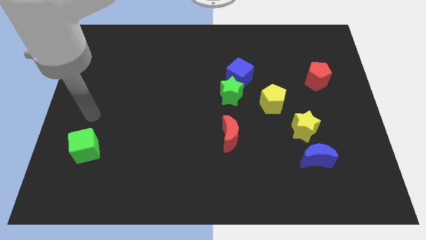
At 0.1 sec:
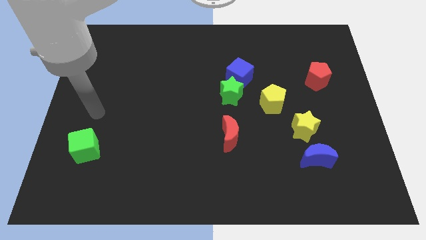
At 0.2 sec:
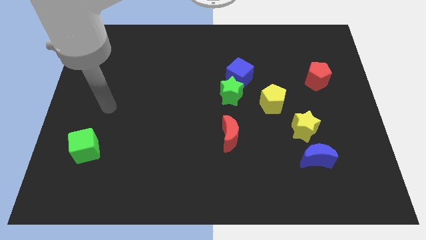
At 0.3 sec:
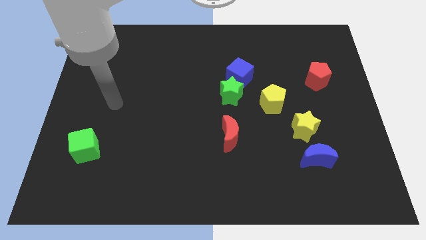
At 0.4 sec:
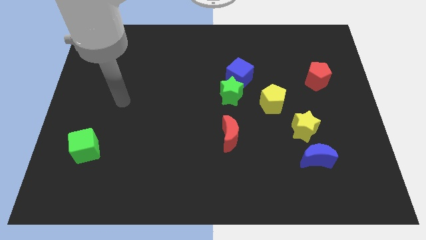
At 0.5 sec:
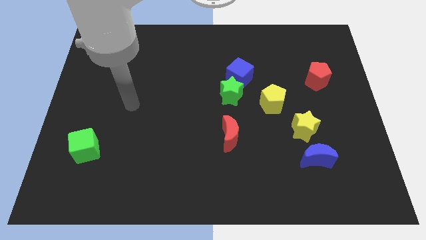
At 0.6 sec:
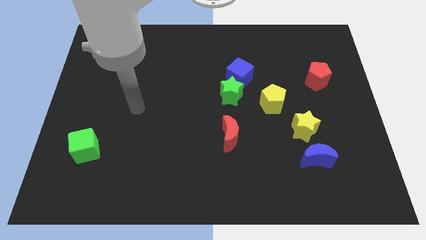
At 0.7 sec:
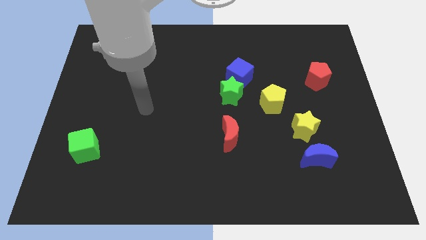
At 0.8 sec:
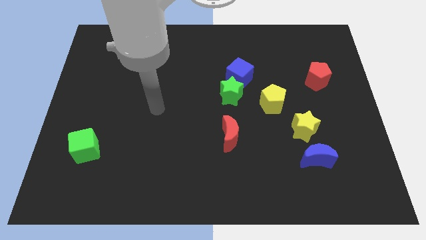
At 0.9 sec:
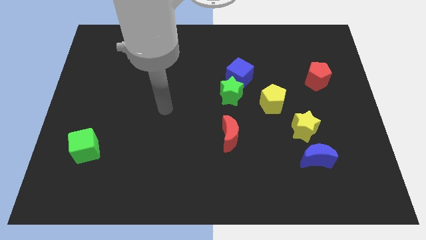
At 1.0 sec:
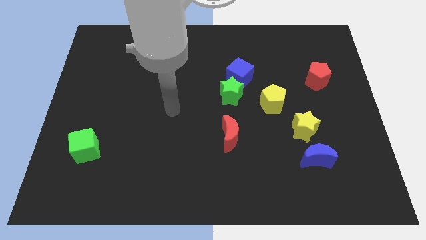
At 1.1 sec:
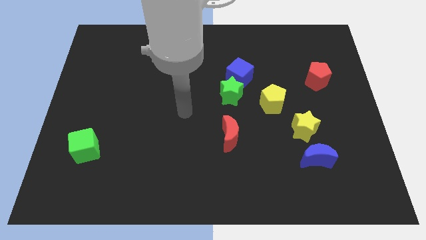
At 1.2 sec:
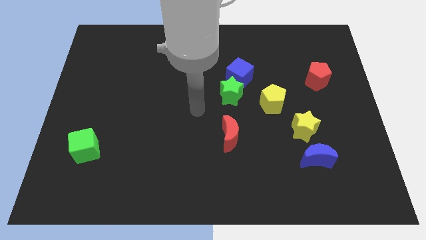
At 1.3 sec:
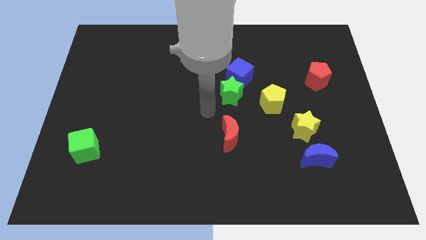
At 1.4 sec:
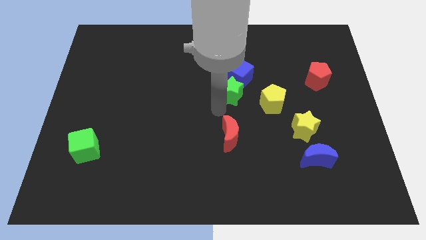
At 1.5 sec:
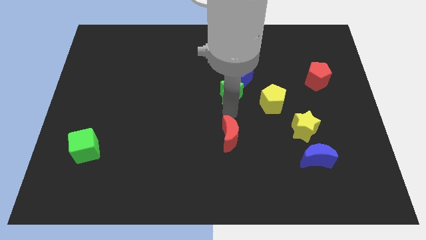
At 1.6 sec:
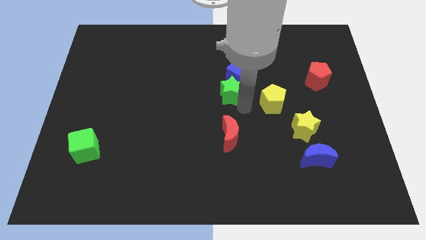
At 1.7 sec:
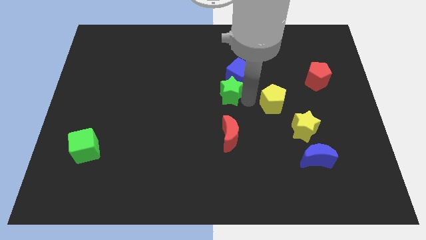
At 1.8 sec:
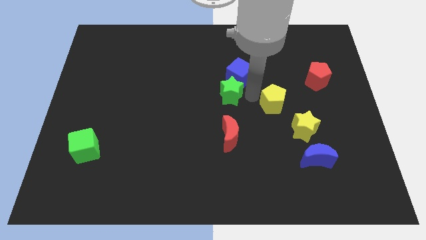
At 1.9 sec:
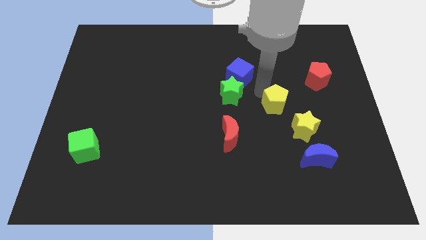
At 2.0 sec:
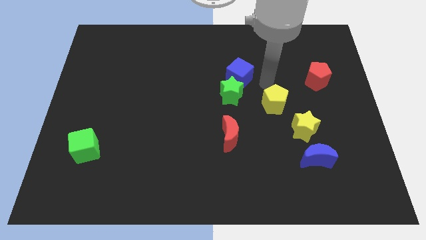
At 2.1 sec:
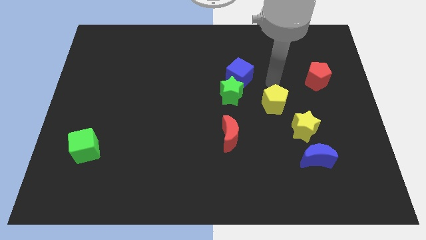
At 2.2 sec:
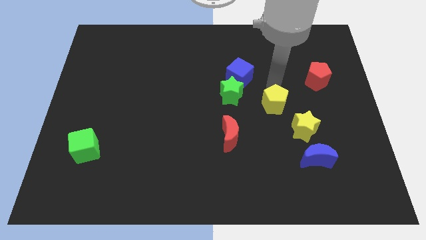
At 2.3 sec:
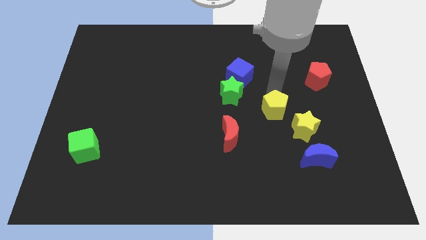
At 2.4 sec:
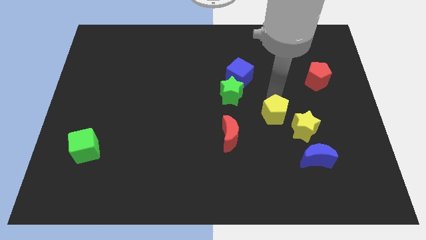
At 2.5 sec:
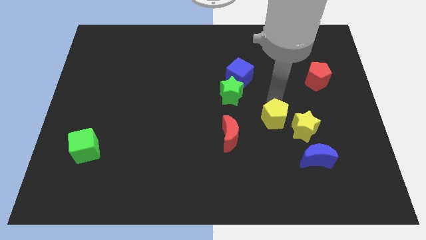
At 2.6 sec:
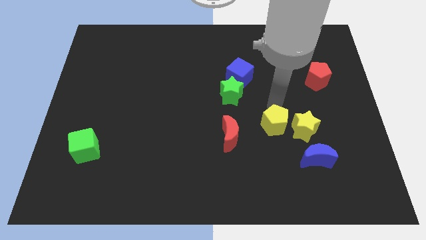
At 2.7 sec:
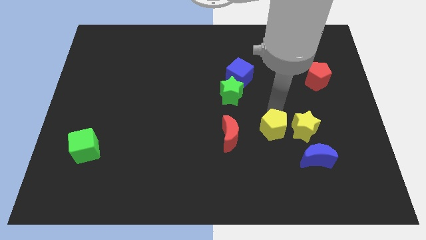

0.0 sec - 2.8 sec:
push the yellow pentagon downwards somewhat

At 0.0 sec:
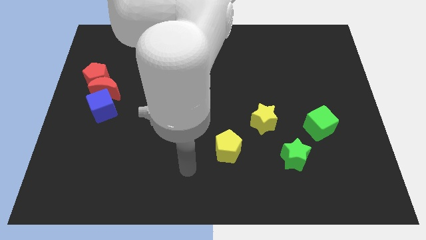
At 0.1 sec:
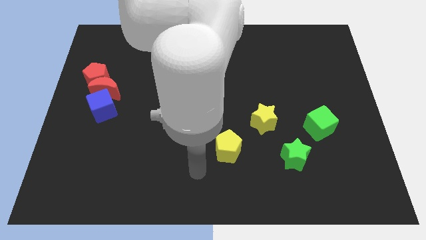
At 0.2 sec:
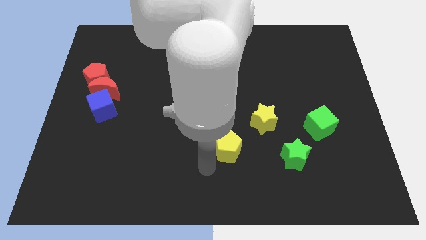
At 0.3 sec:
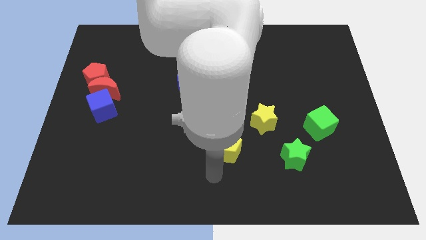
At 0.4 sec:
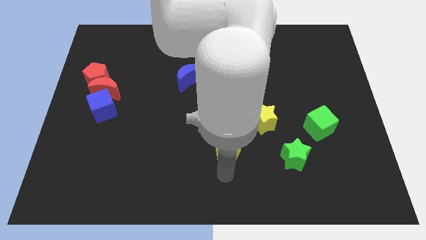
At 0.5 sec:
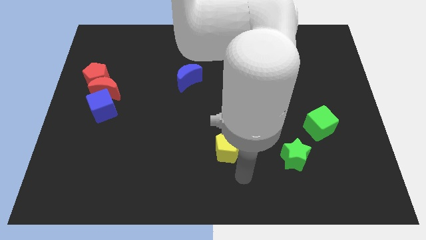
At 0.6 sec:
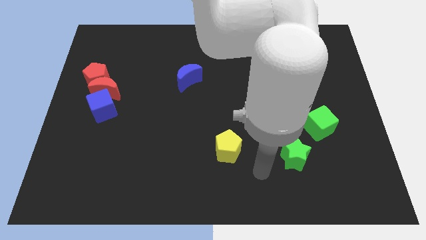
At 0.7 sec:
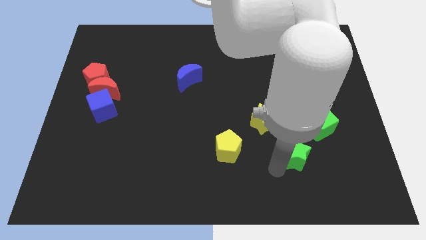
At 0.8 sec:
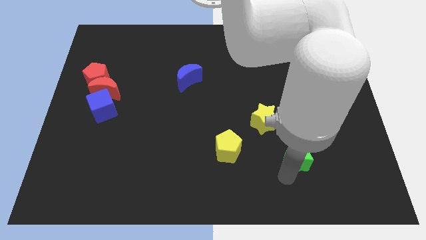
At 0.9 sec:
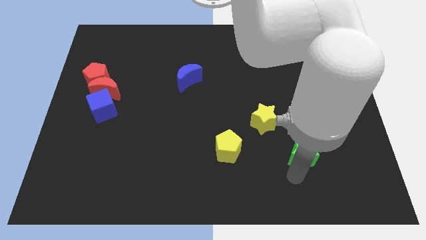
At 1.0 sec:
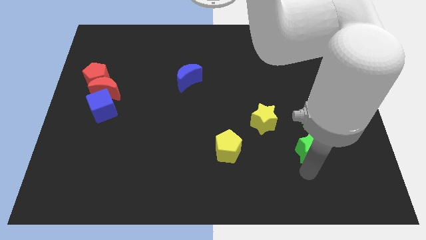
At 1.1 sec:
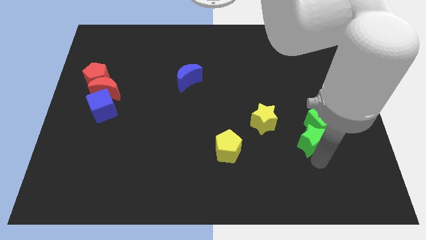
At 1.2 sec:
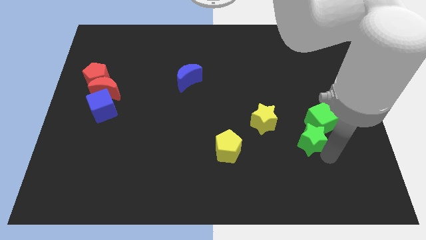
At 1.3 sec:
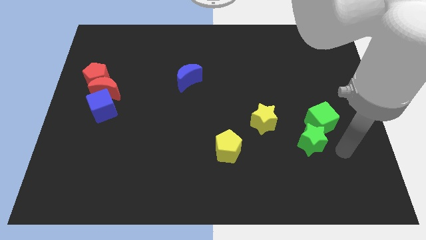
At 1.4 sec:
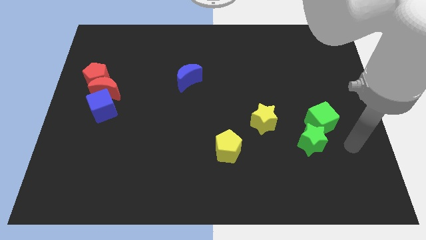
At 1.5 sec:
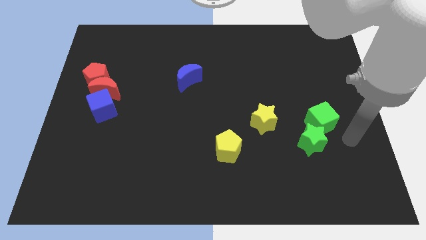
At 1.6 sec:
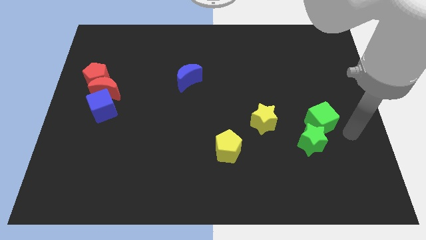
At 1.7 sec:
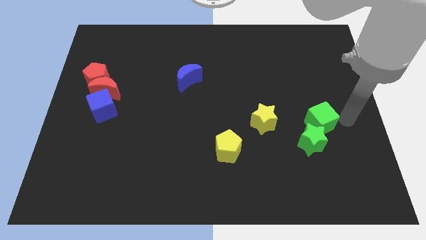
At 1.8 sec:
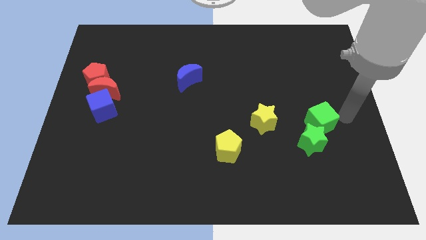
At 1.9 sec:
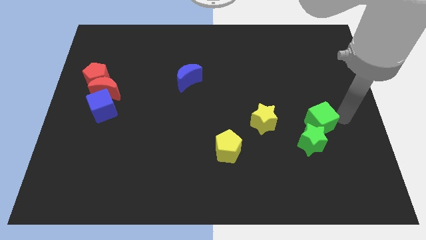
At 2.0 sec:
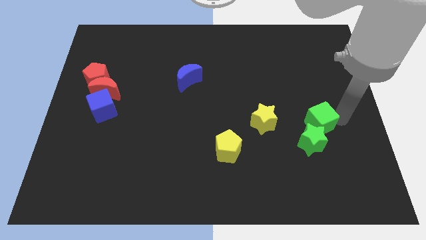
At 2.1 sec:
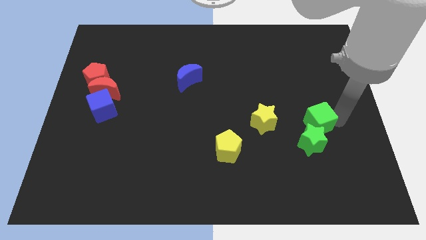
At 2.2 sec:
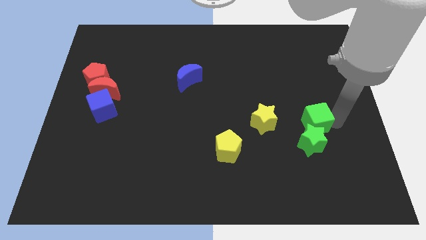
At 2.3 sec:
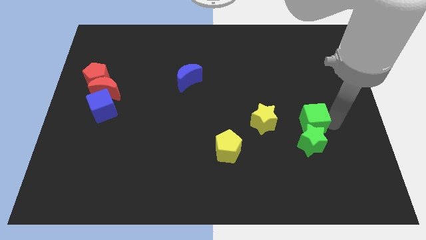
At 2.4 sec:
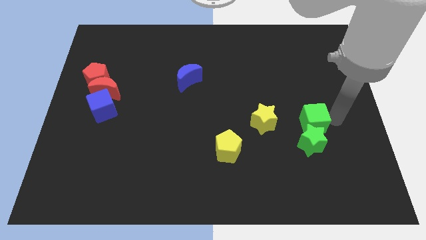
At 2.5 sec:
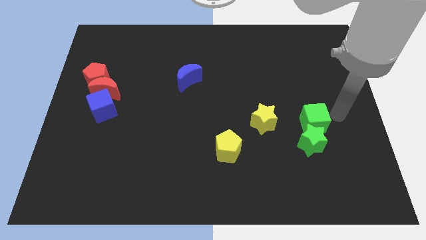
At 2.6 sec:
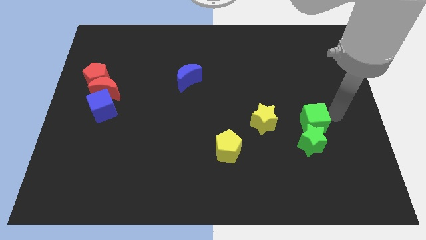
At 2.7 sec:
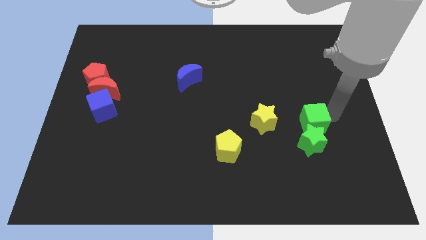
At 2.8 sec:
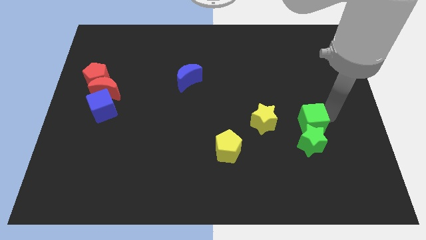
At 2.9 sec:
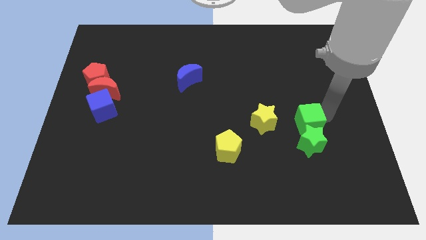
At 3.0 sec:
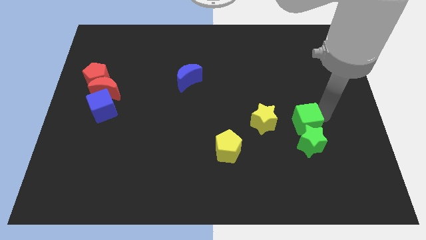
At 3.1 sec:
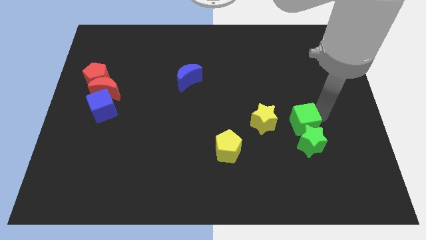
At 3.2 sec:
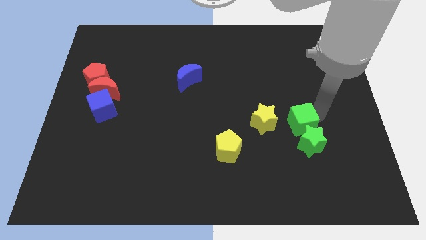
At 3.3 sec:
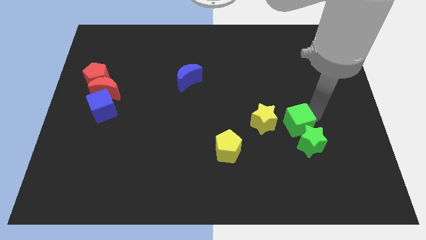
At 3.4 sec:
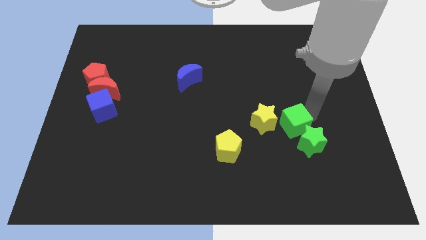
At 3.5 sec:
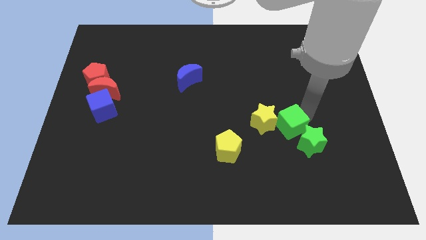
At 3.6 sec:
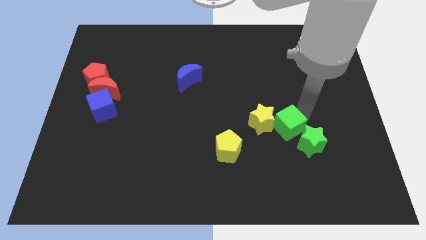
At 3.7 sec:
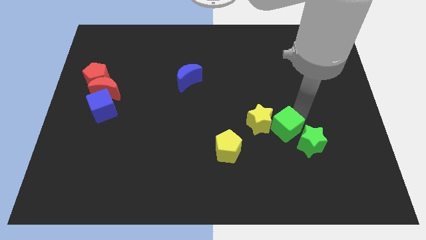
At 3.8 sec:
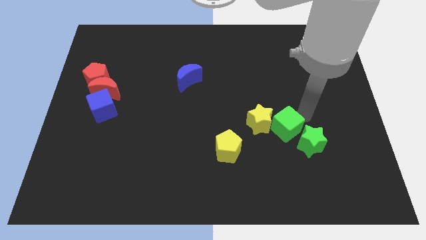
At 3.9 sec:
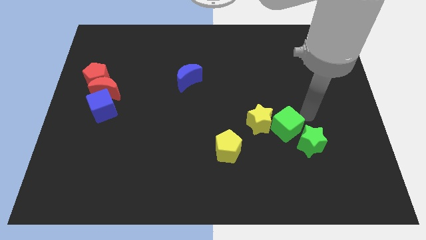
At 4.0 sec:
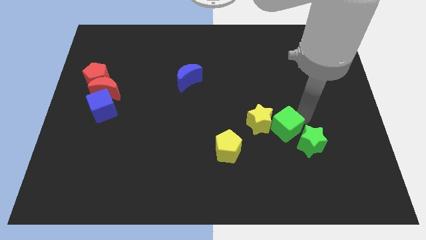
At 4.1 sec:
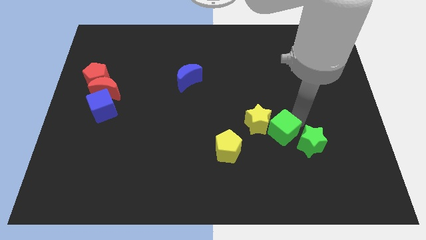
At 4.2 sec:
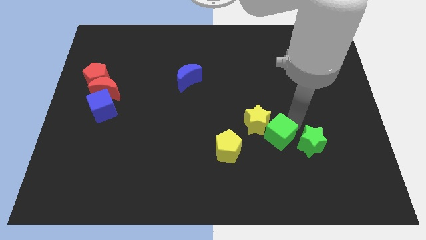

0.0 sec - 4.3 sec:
slightly slide the green cube down and to the left diagonally

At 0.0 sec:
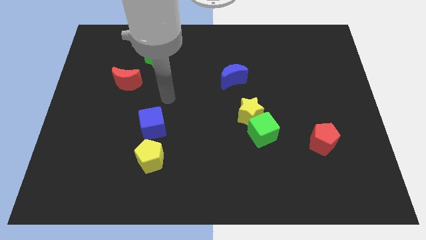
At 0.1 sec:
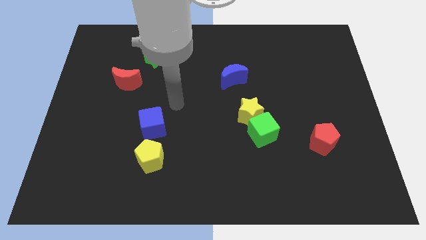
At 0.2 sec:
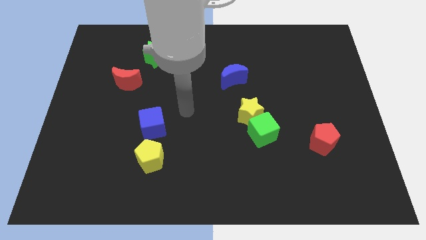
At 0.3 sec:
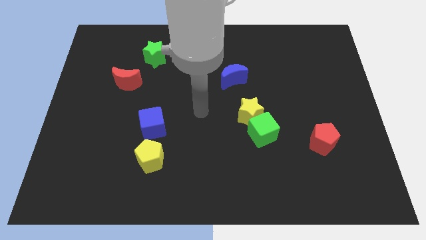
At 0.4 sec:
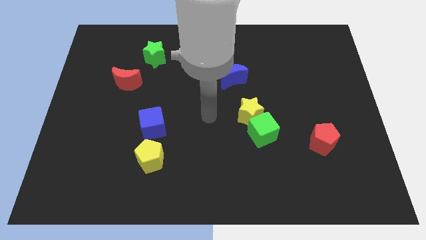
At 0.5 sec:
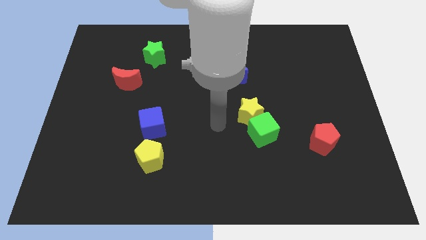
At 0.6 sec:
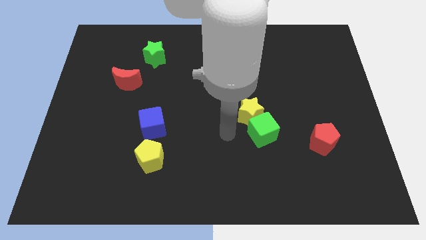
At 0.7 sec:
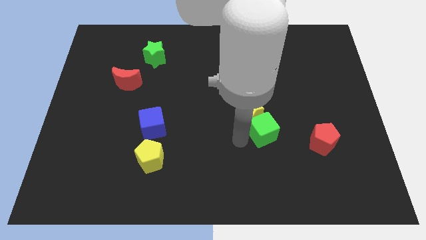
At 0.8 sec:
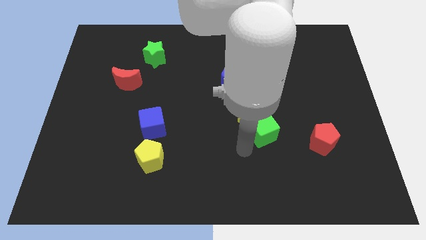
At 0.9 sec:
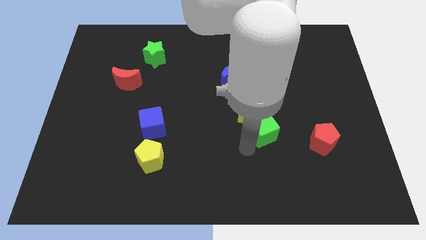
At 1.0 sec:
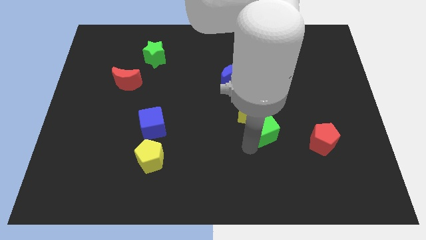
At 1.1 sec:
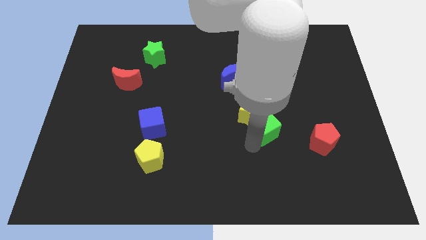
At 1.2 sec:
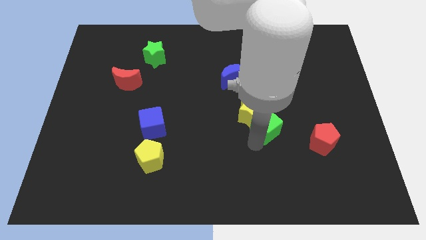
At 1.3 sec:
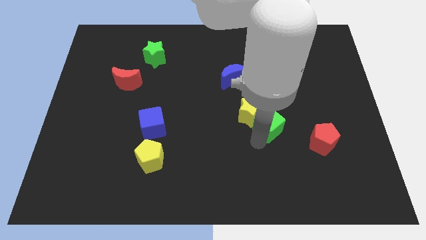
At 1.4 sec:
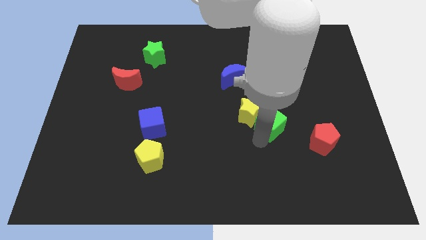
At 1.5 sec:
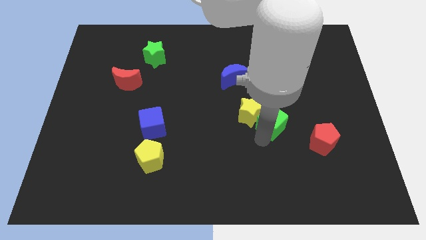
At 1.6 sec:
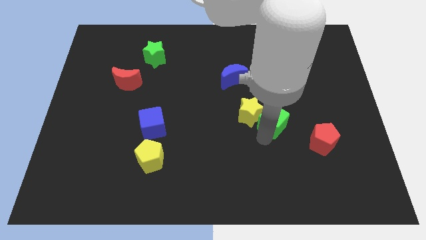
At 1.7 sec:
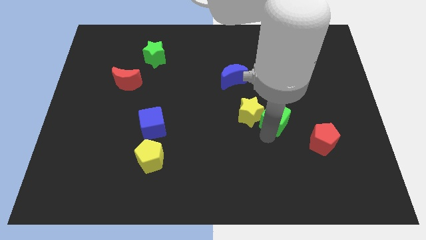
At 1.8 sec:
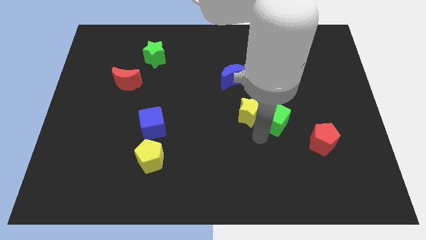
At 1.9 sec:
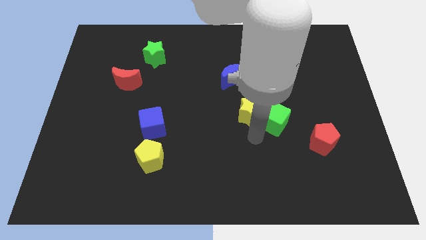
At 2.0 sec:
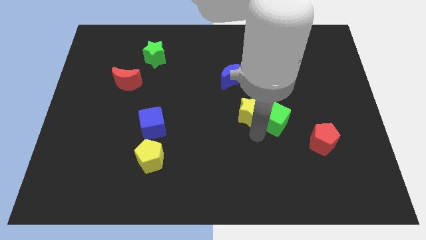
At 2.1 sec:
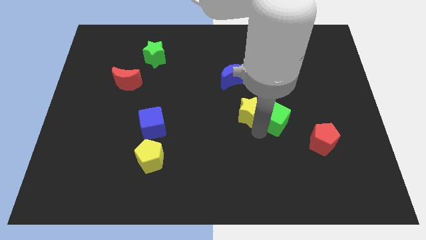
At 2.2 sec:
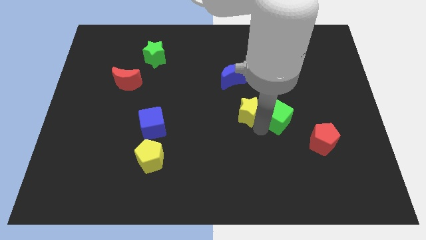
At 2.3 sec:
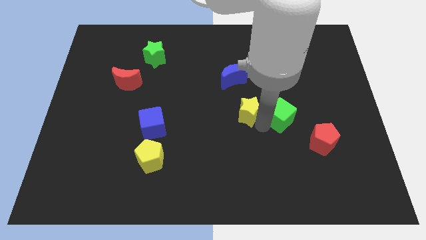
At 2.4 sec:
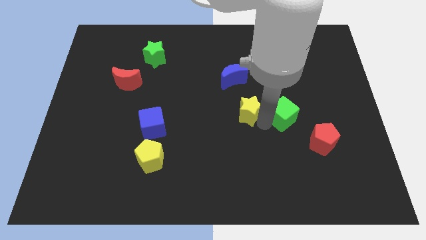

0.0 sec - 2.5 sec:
push the green cube up and to the right diagonally a little
